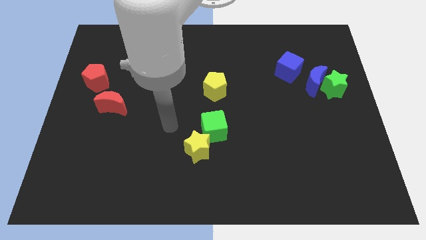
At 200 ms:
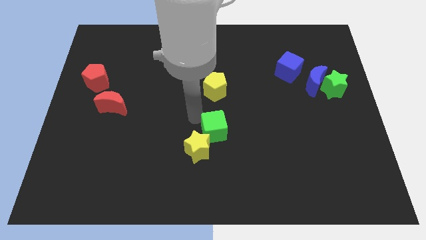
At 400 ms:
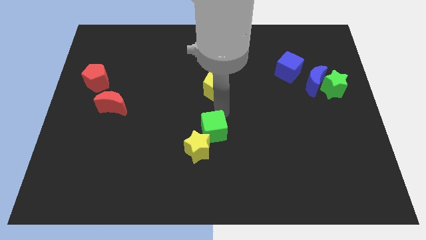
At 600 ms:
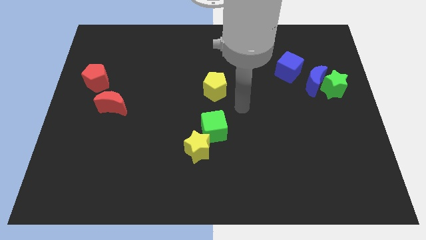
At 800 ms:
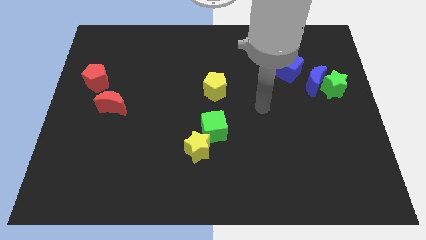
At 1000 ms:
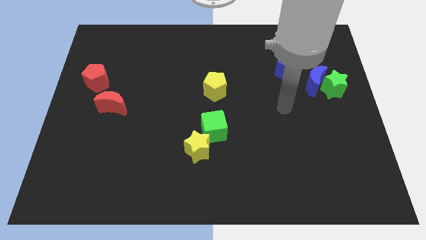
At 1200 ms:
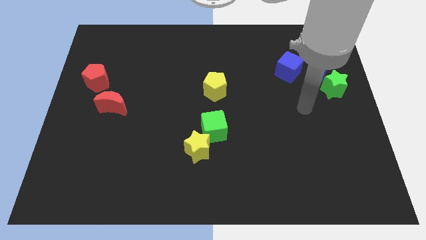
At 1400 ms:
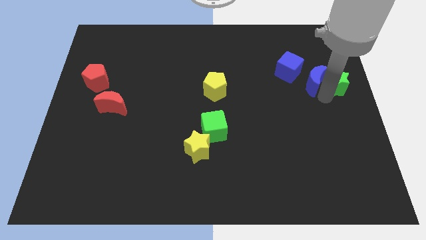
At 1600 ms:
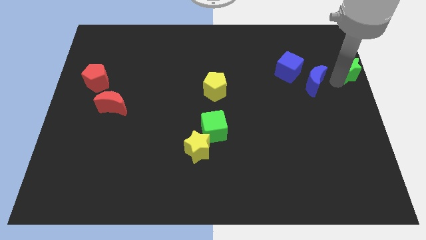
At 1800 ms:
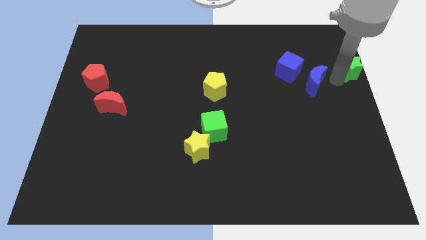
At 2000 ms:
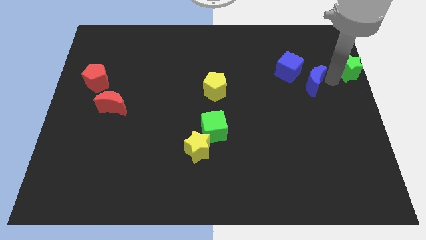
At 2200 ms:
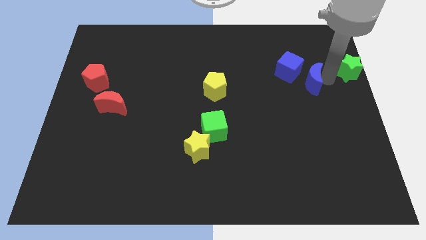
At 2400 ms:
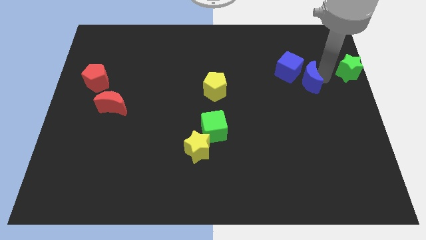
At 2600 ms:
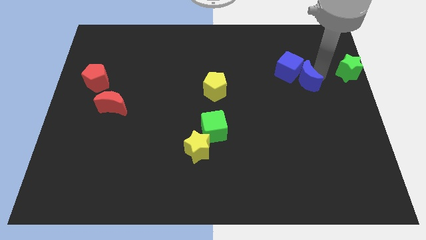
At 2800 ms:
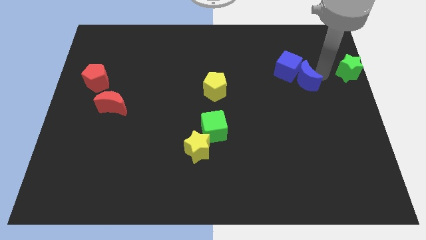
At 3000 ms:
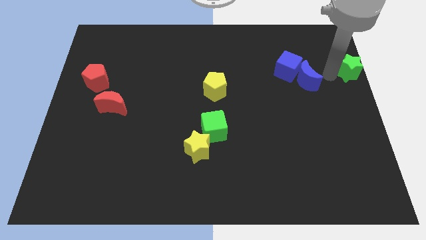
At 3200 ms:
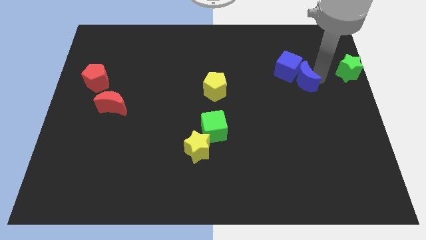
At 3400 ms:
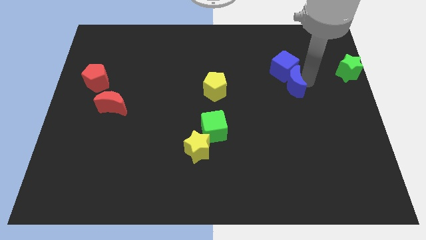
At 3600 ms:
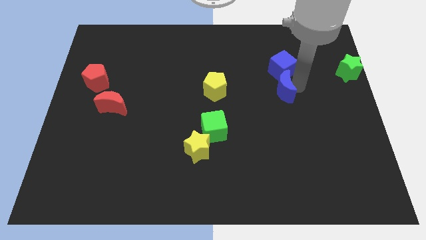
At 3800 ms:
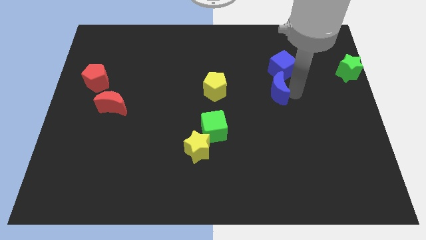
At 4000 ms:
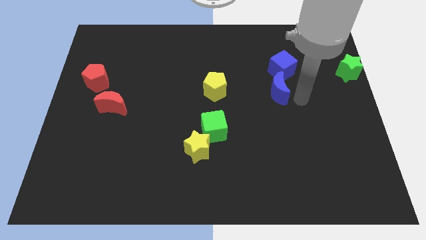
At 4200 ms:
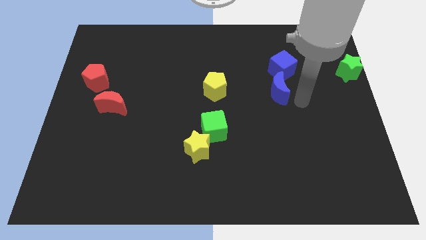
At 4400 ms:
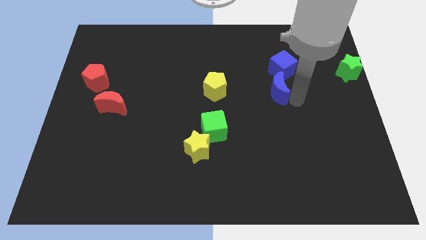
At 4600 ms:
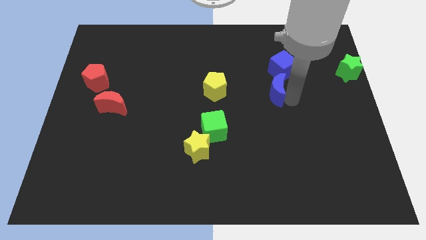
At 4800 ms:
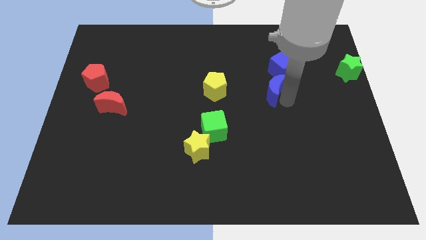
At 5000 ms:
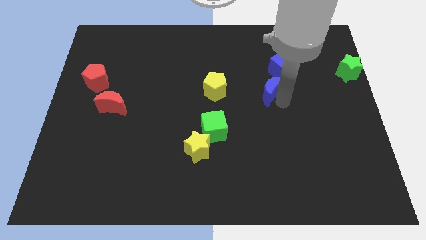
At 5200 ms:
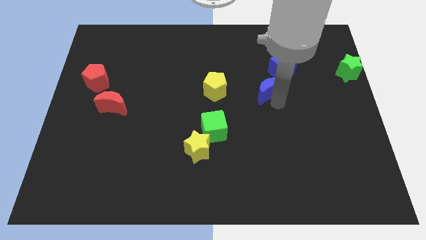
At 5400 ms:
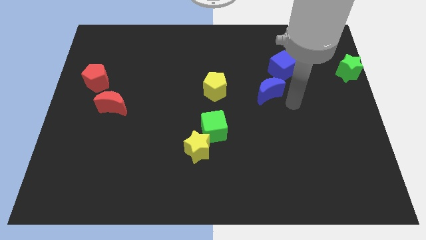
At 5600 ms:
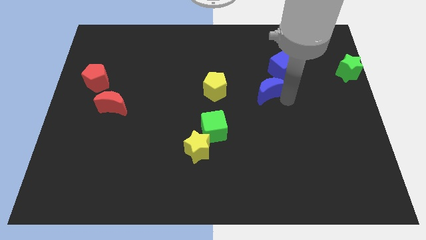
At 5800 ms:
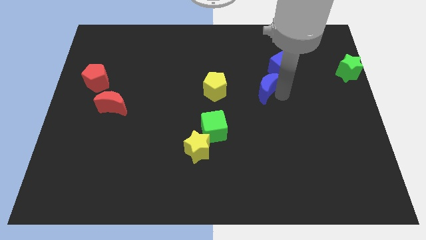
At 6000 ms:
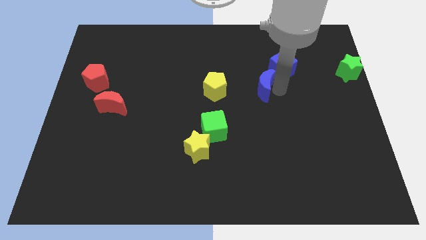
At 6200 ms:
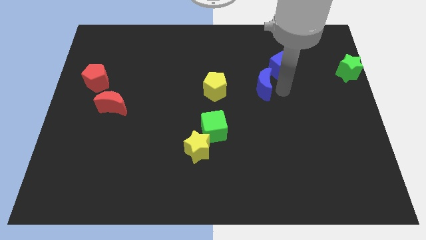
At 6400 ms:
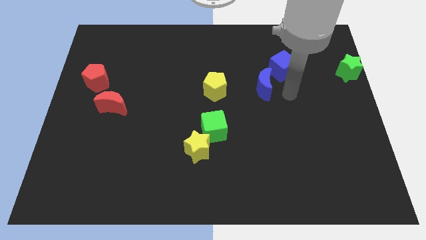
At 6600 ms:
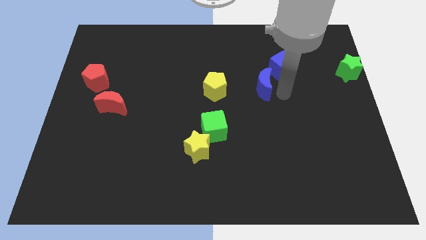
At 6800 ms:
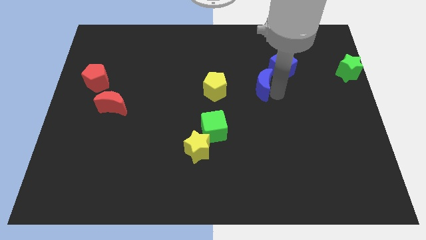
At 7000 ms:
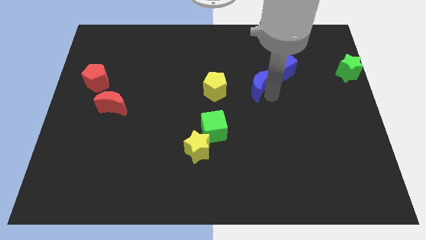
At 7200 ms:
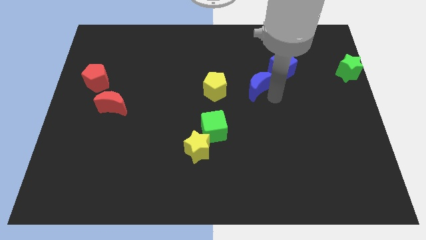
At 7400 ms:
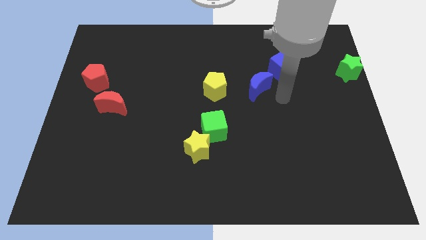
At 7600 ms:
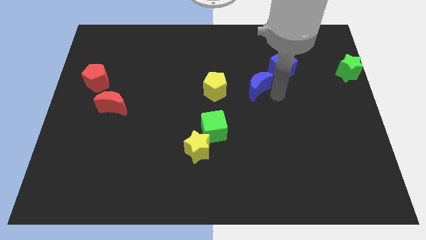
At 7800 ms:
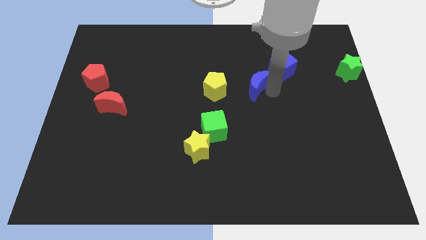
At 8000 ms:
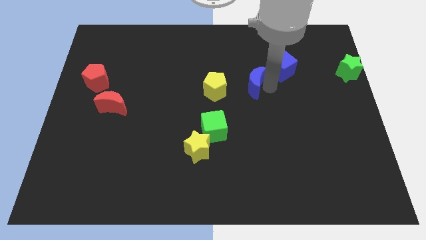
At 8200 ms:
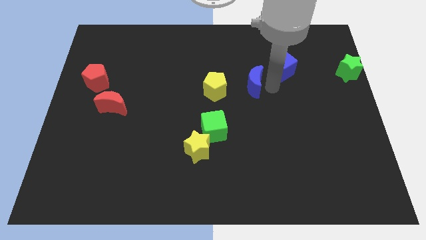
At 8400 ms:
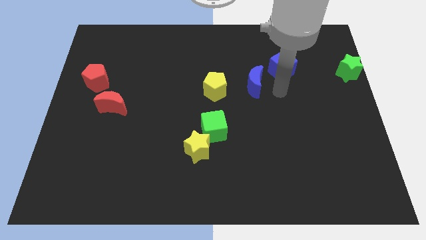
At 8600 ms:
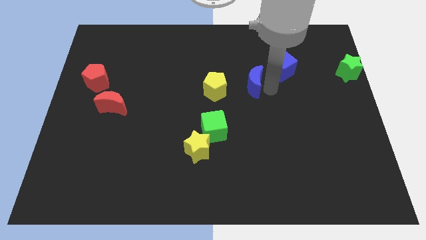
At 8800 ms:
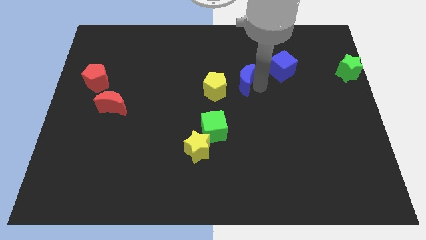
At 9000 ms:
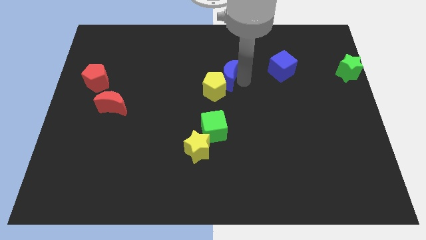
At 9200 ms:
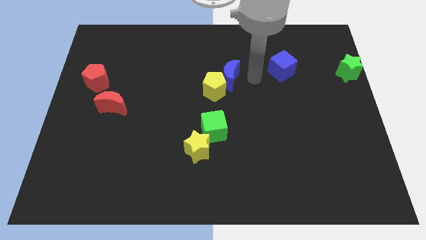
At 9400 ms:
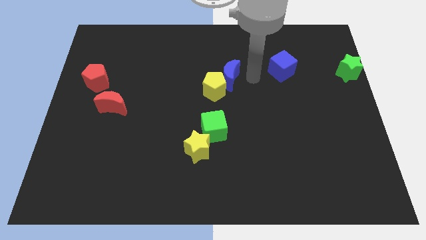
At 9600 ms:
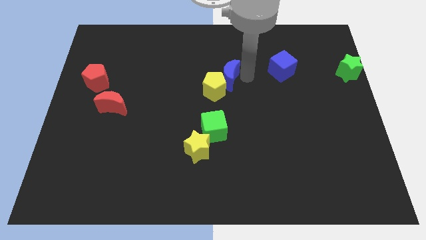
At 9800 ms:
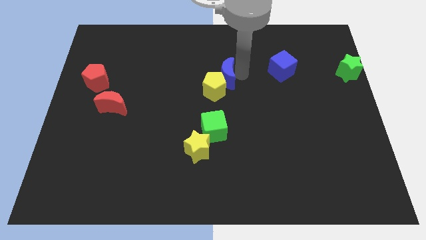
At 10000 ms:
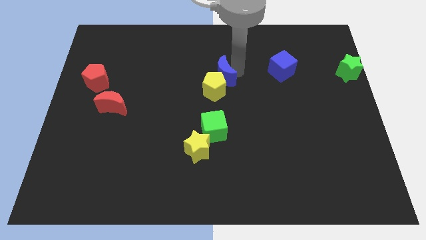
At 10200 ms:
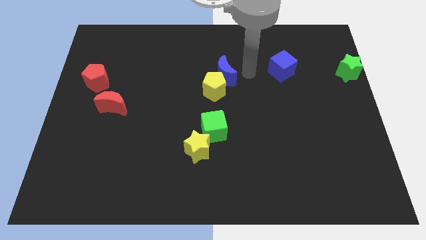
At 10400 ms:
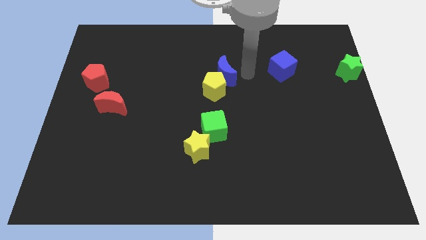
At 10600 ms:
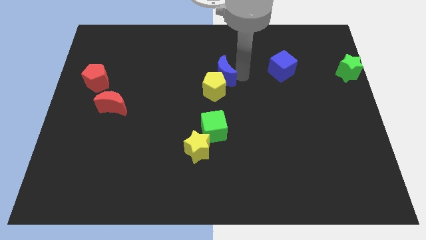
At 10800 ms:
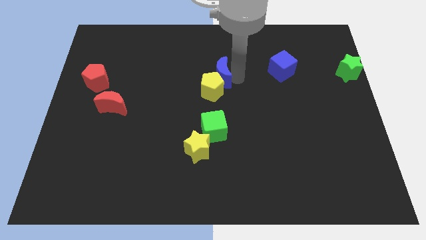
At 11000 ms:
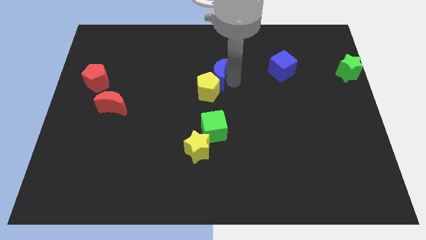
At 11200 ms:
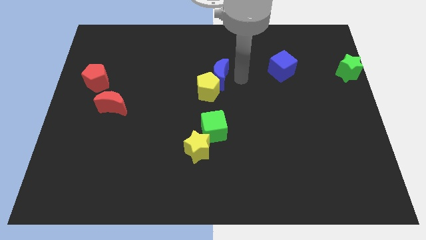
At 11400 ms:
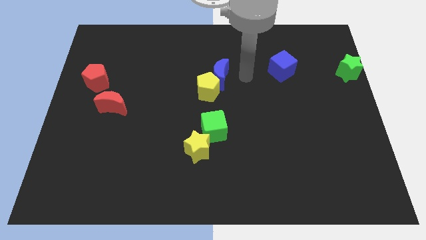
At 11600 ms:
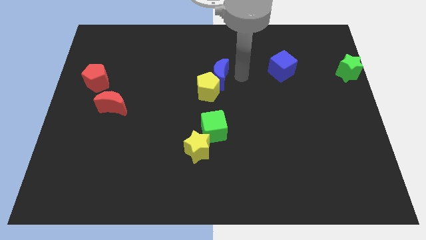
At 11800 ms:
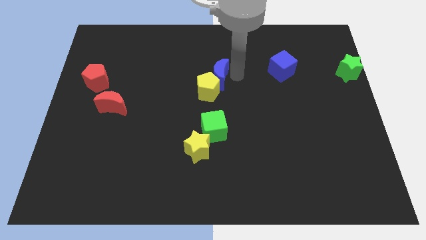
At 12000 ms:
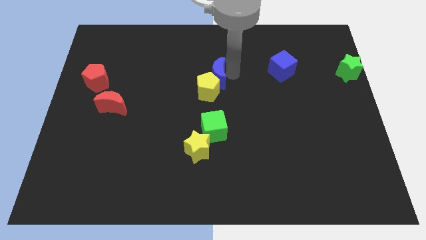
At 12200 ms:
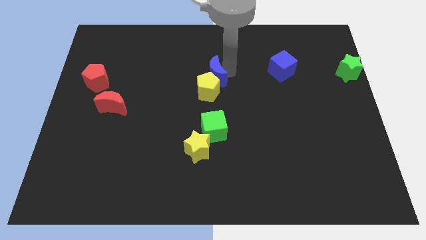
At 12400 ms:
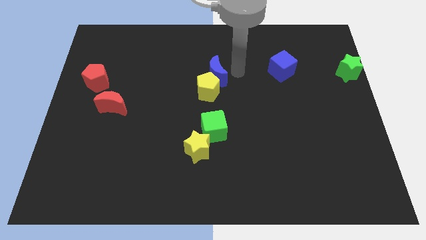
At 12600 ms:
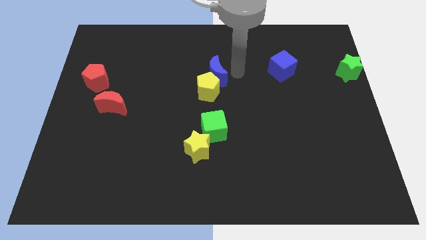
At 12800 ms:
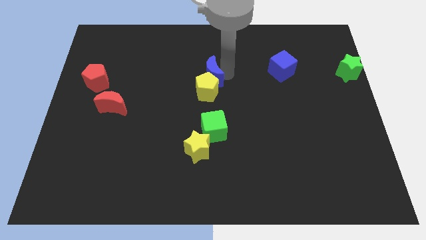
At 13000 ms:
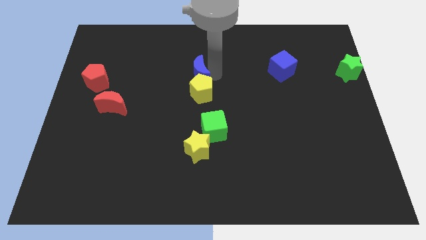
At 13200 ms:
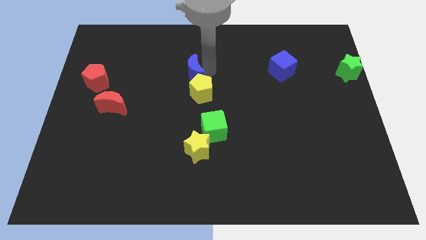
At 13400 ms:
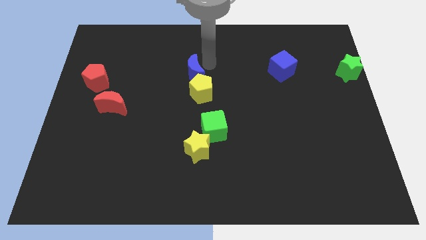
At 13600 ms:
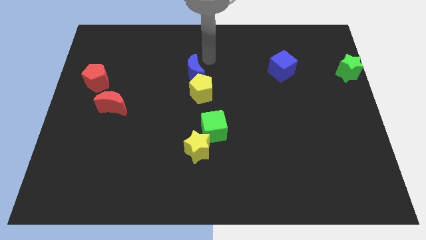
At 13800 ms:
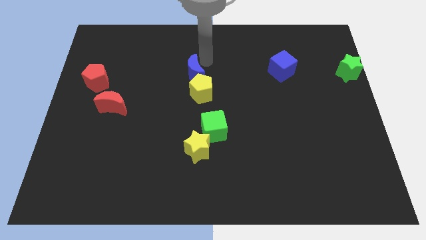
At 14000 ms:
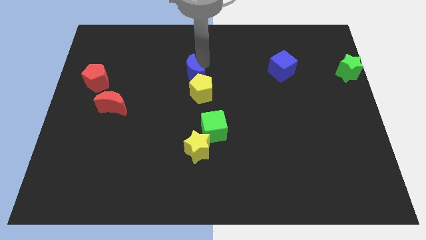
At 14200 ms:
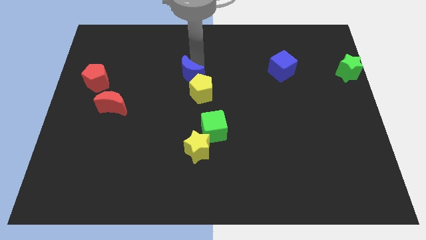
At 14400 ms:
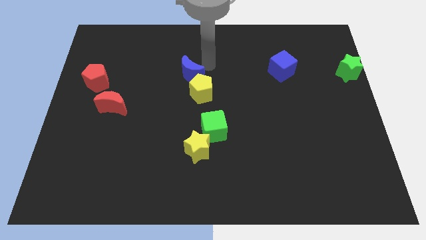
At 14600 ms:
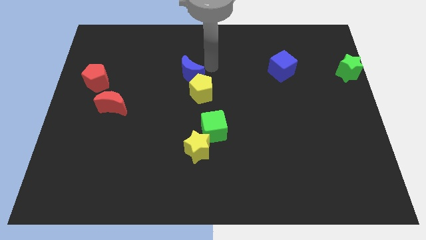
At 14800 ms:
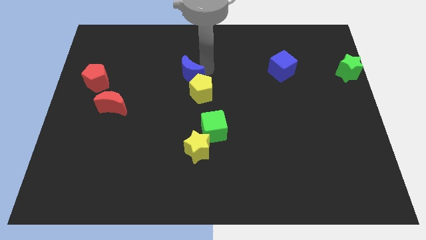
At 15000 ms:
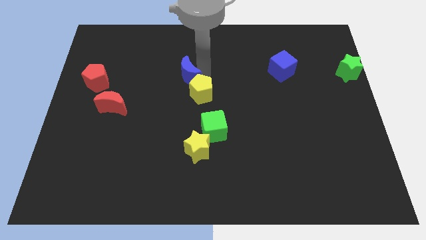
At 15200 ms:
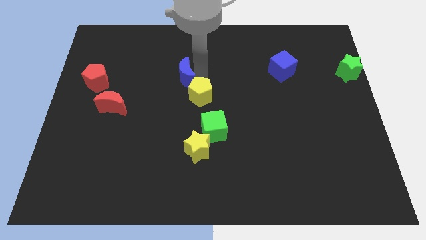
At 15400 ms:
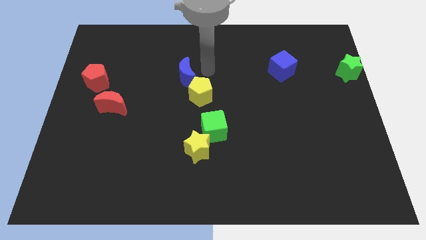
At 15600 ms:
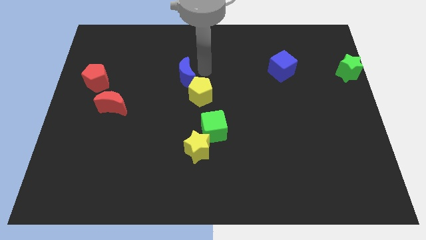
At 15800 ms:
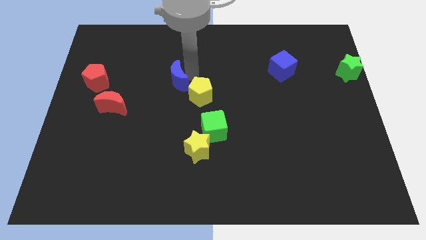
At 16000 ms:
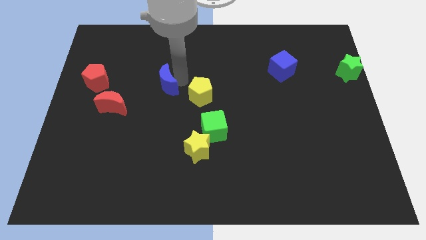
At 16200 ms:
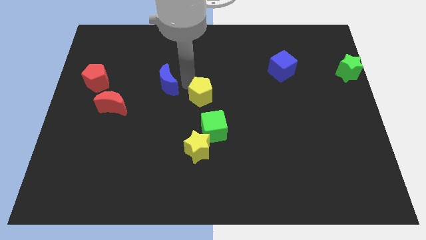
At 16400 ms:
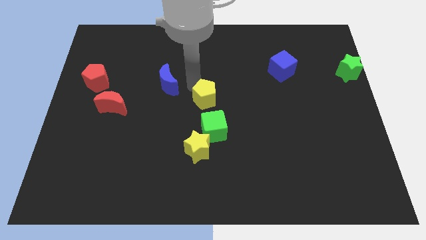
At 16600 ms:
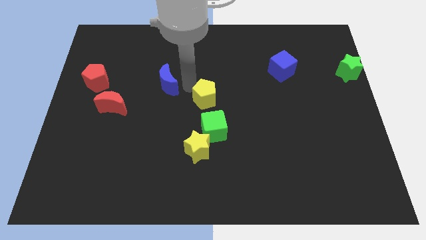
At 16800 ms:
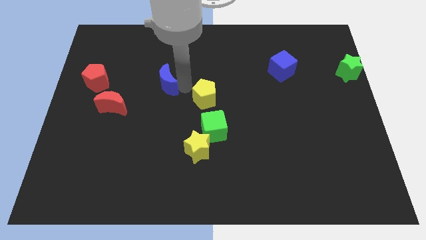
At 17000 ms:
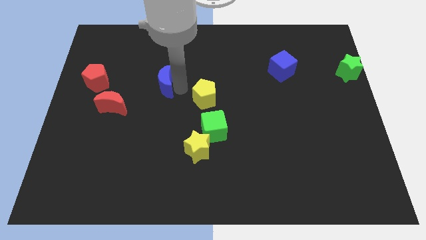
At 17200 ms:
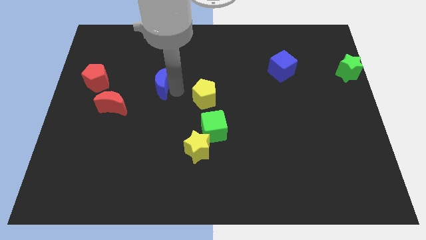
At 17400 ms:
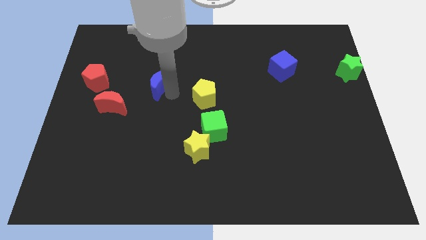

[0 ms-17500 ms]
push the blue moon to the right of the red pentagon
